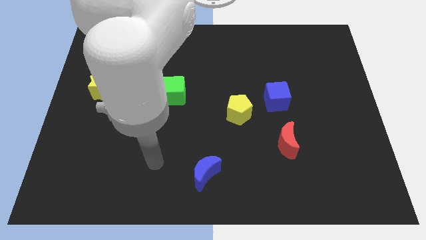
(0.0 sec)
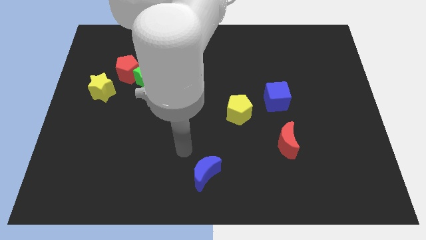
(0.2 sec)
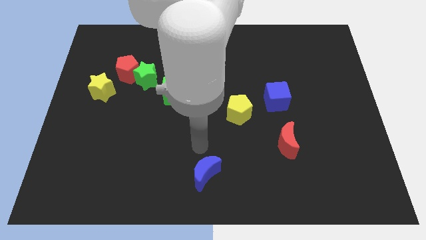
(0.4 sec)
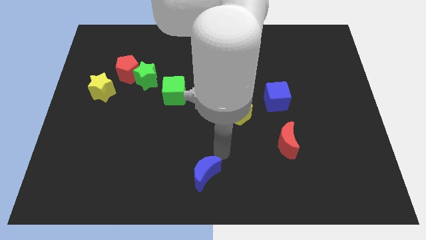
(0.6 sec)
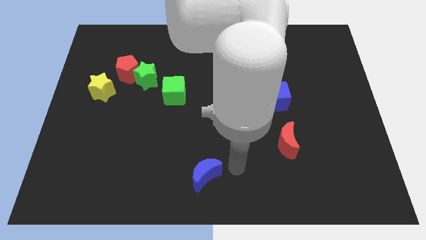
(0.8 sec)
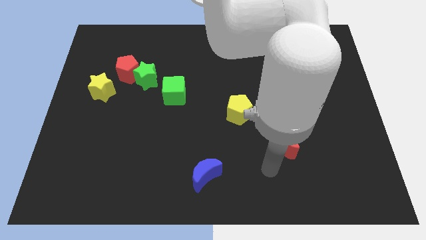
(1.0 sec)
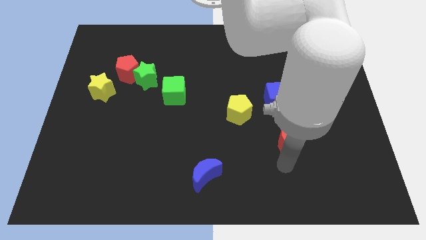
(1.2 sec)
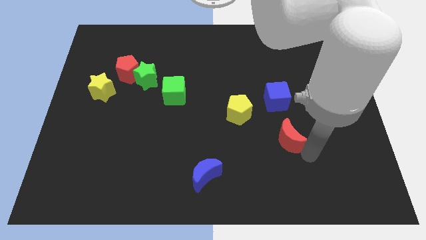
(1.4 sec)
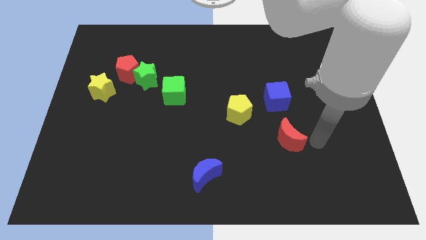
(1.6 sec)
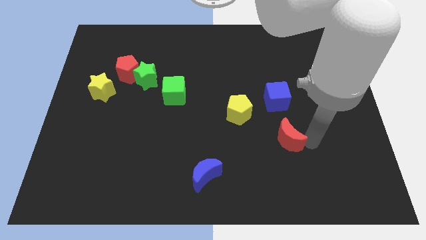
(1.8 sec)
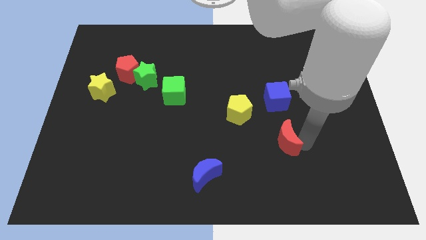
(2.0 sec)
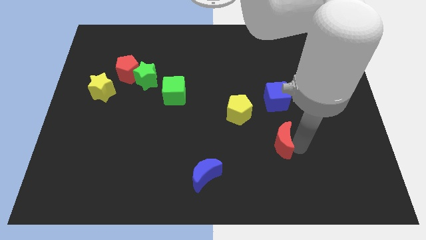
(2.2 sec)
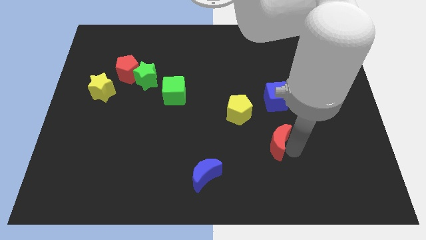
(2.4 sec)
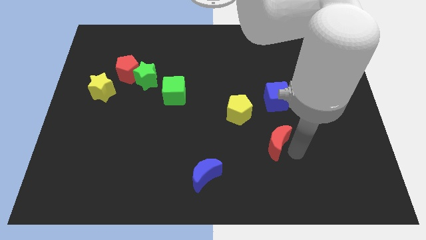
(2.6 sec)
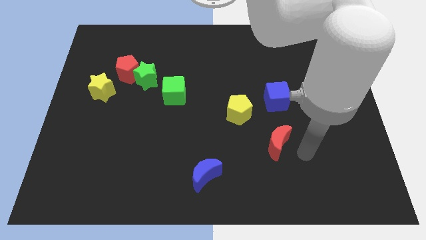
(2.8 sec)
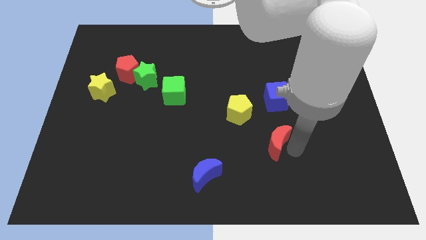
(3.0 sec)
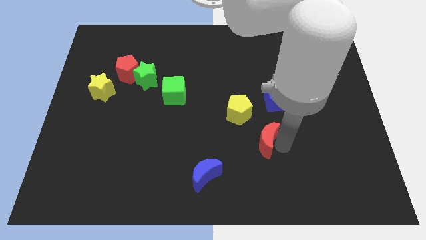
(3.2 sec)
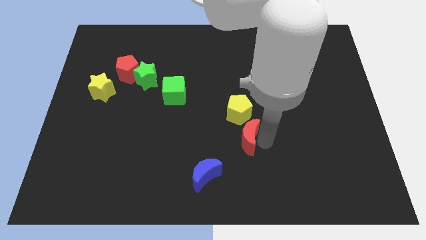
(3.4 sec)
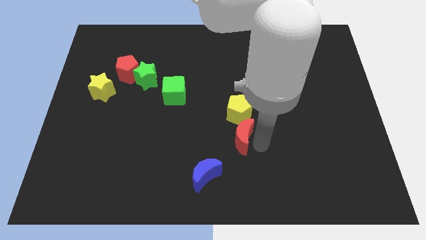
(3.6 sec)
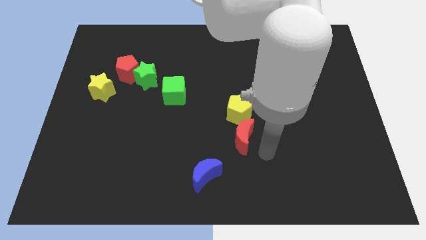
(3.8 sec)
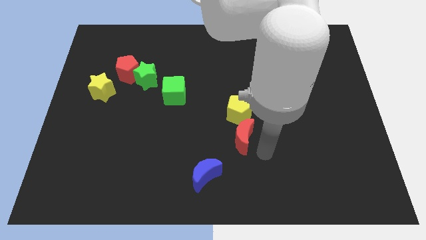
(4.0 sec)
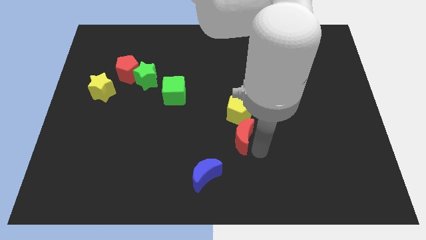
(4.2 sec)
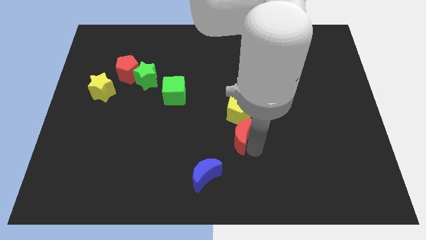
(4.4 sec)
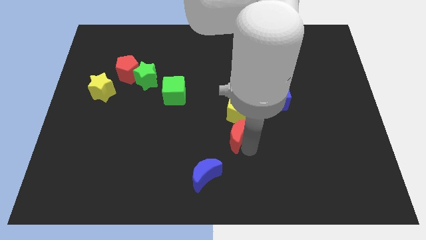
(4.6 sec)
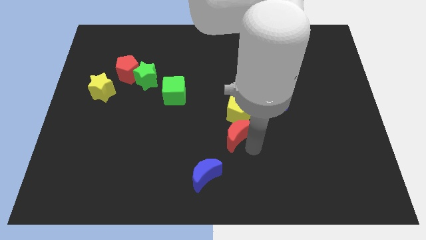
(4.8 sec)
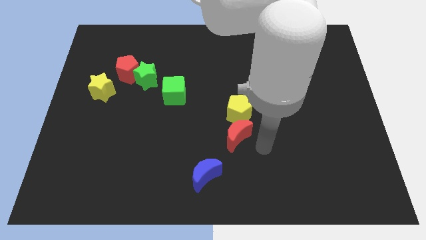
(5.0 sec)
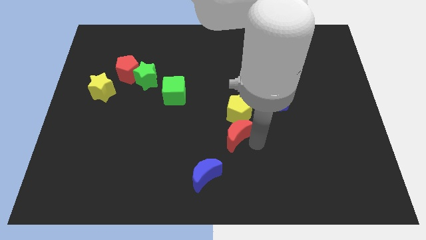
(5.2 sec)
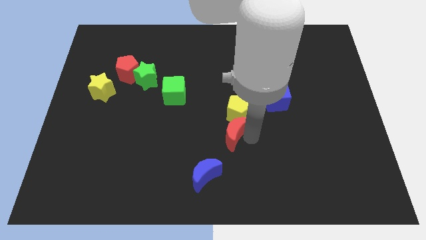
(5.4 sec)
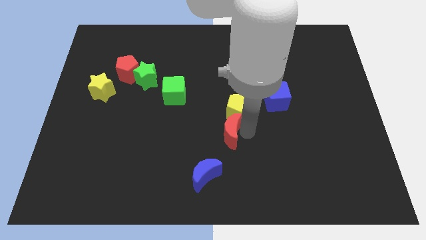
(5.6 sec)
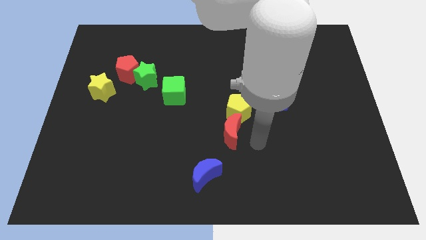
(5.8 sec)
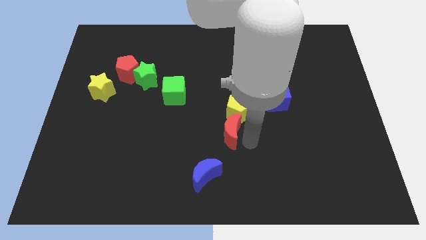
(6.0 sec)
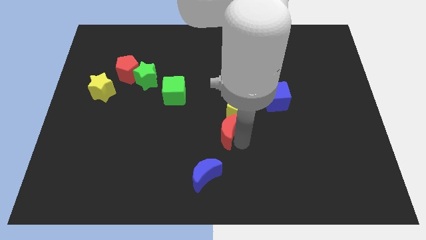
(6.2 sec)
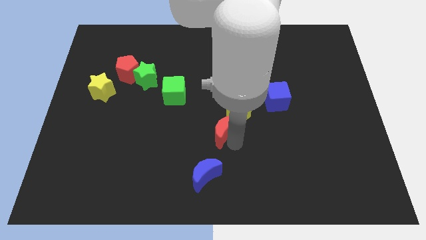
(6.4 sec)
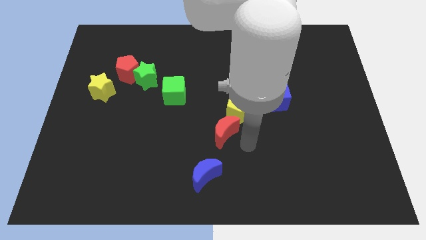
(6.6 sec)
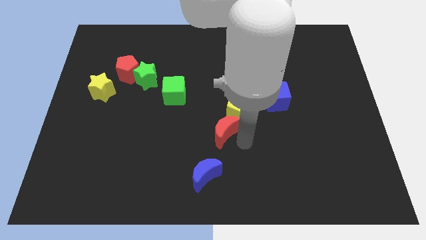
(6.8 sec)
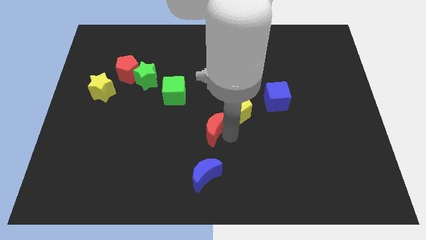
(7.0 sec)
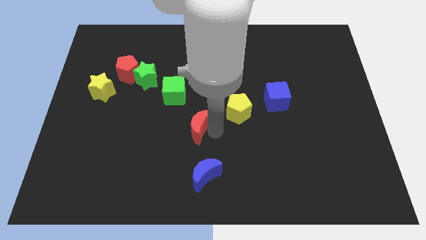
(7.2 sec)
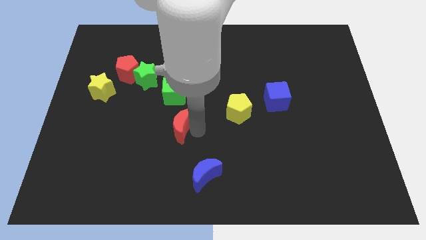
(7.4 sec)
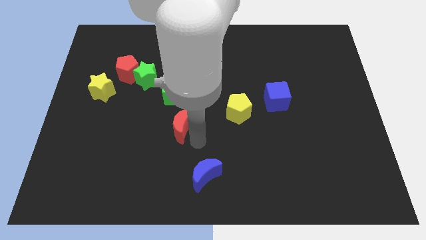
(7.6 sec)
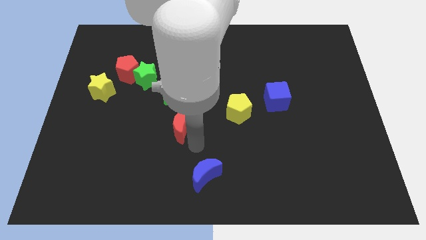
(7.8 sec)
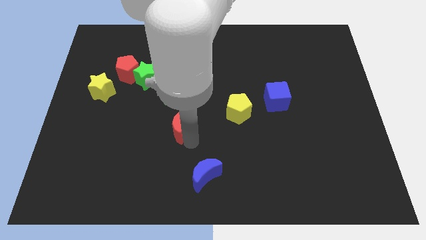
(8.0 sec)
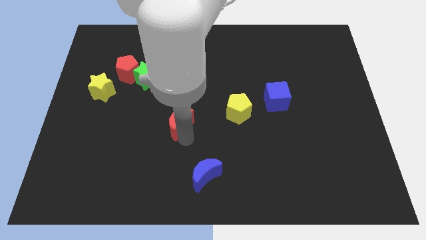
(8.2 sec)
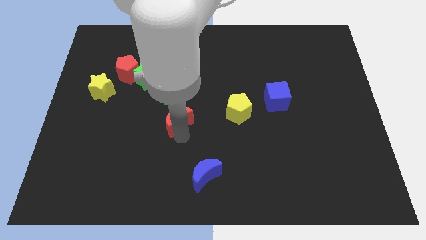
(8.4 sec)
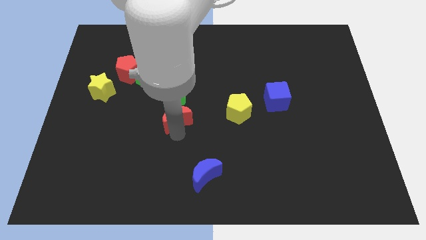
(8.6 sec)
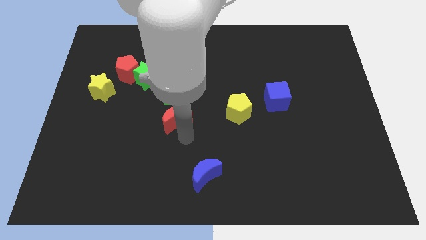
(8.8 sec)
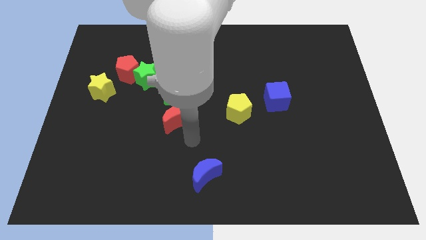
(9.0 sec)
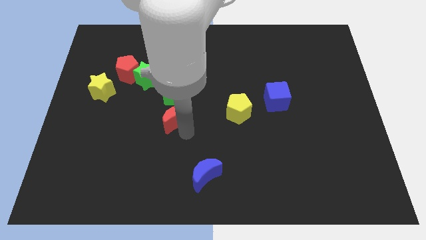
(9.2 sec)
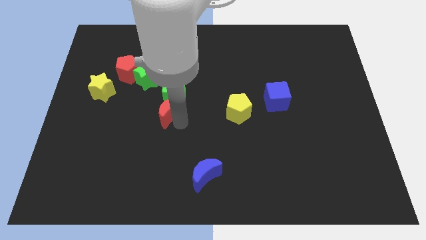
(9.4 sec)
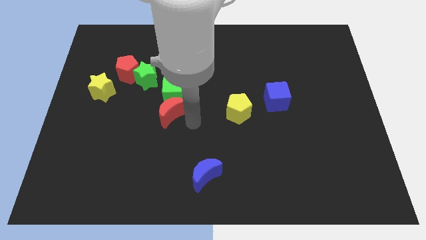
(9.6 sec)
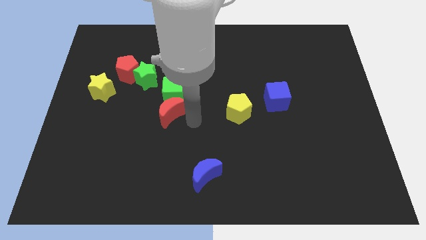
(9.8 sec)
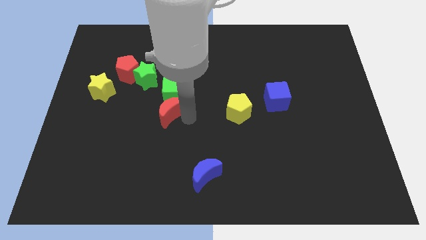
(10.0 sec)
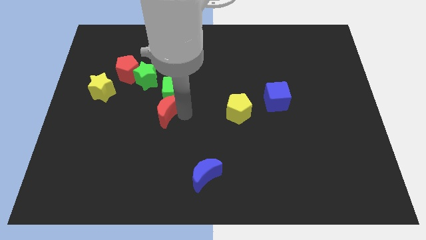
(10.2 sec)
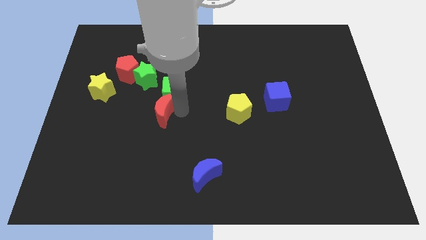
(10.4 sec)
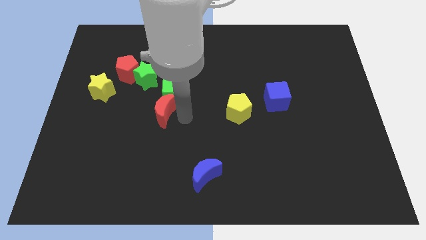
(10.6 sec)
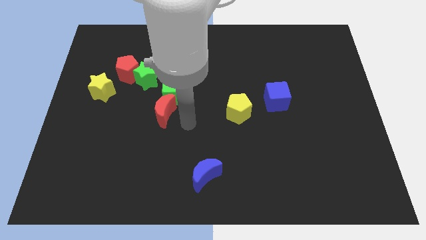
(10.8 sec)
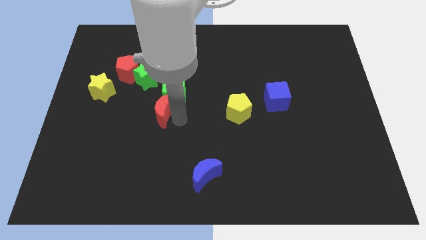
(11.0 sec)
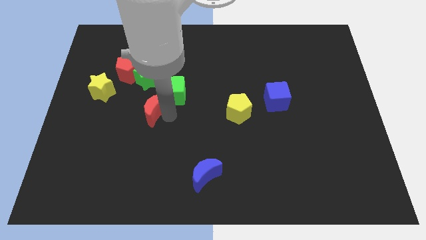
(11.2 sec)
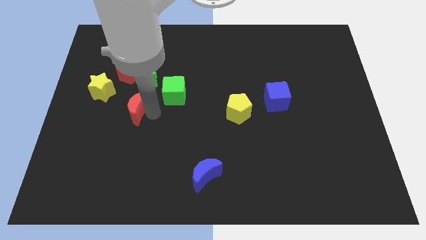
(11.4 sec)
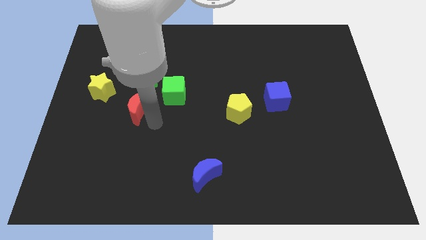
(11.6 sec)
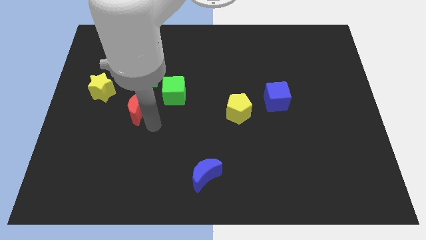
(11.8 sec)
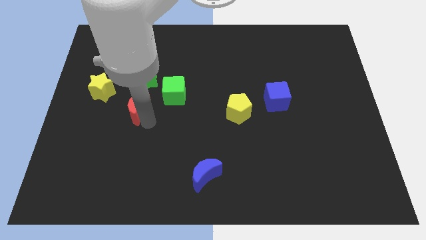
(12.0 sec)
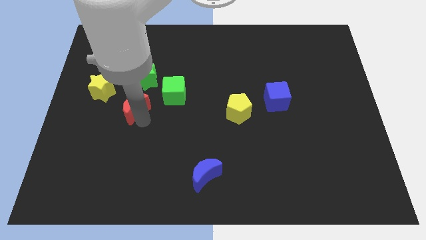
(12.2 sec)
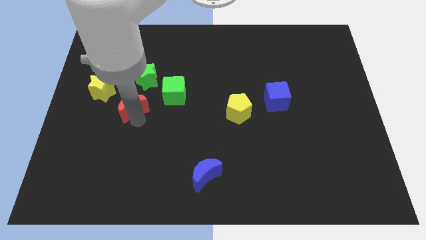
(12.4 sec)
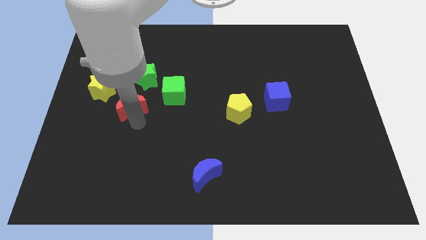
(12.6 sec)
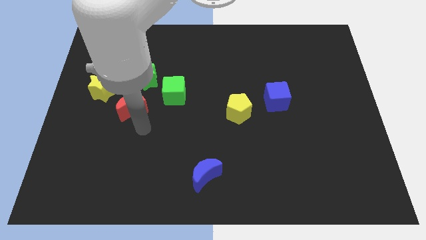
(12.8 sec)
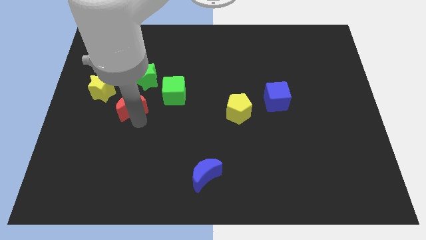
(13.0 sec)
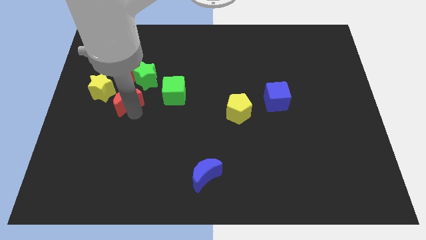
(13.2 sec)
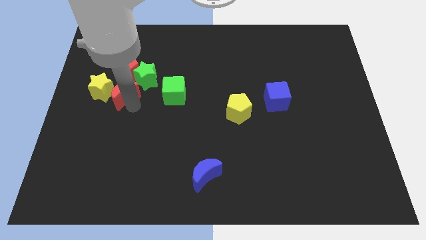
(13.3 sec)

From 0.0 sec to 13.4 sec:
slide the red moon towards the yellow star

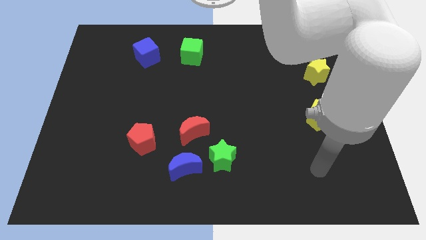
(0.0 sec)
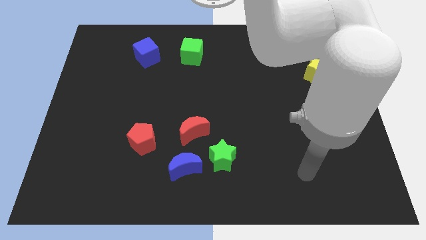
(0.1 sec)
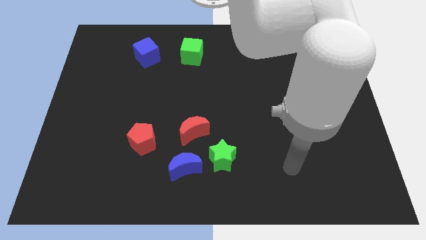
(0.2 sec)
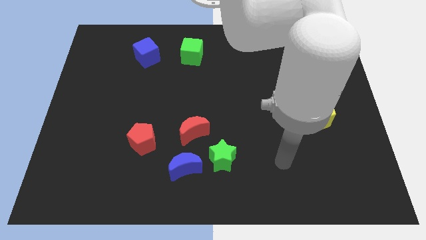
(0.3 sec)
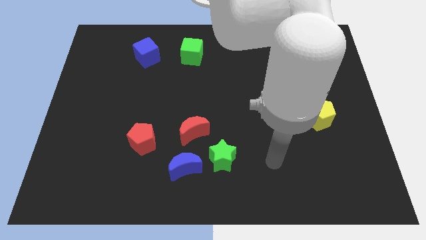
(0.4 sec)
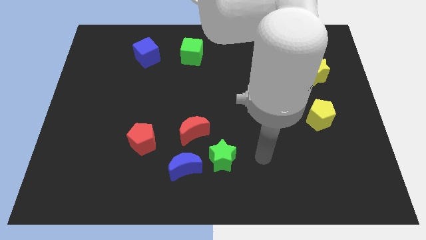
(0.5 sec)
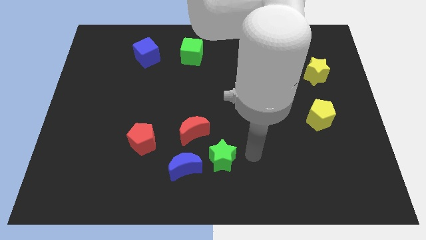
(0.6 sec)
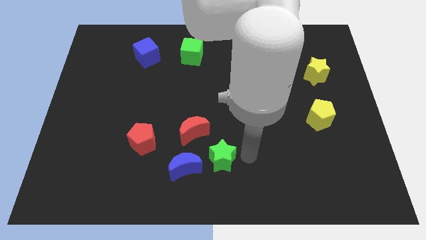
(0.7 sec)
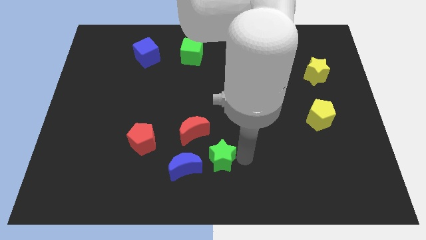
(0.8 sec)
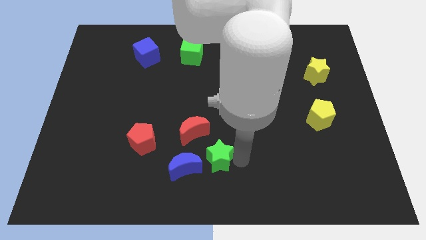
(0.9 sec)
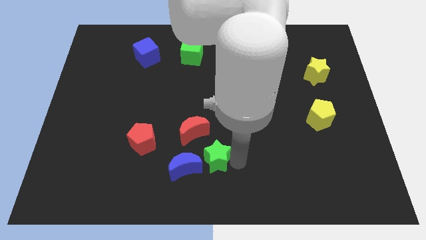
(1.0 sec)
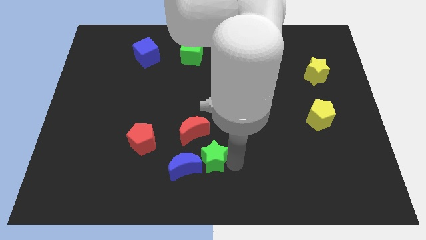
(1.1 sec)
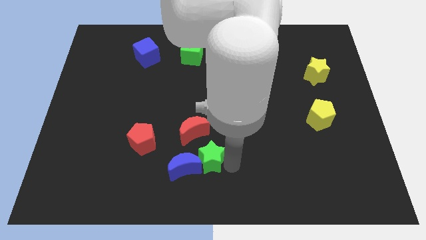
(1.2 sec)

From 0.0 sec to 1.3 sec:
push the green star next to the blue moon
